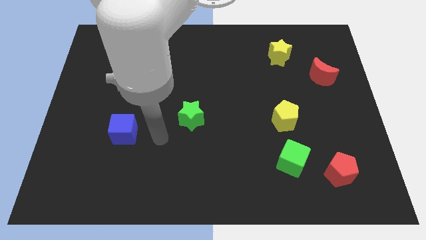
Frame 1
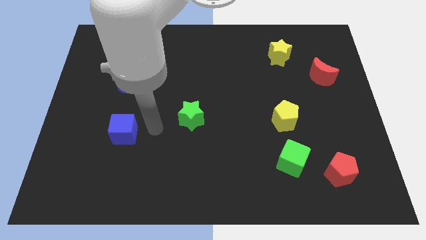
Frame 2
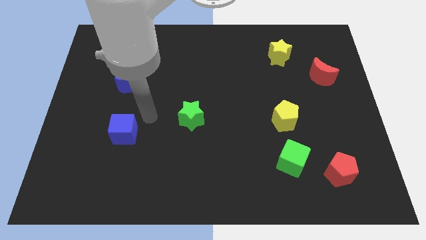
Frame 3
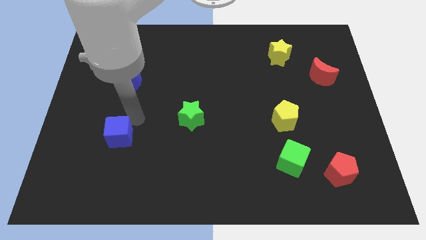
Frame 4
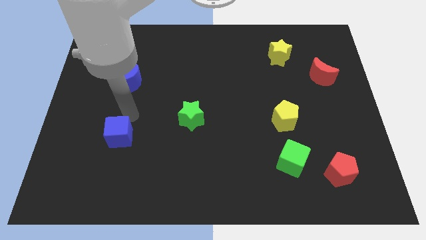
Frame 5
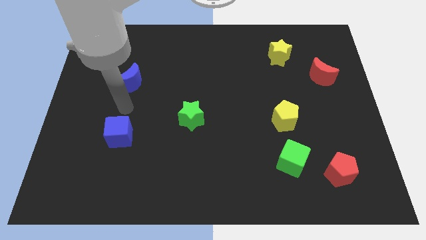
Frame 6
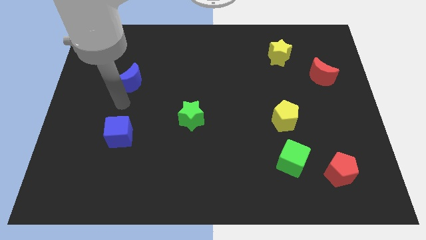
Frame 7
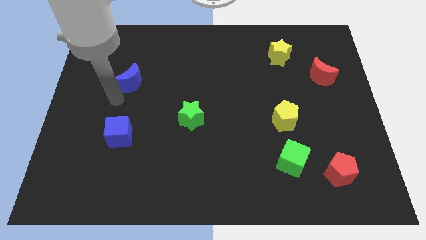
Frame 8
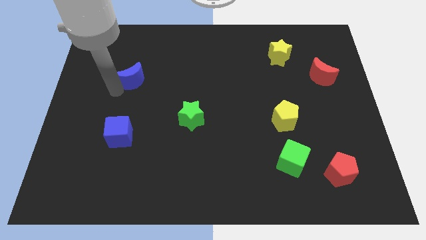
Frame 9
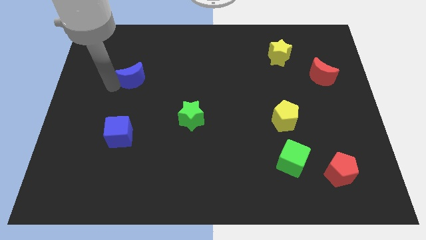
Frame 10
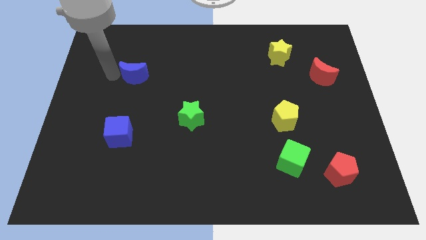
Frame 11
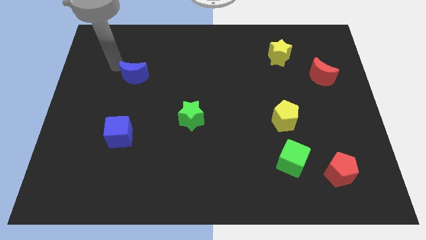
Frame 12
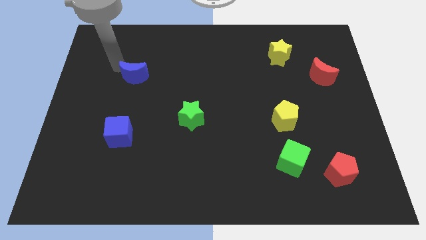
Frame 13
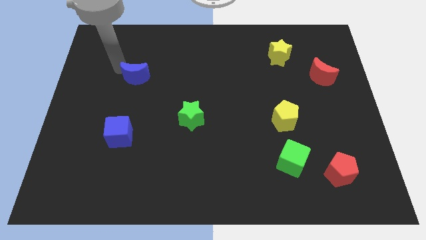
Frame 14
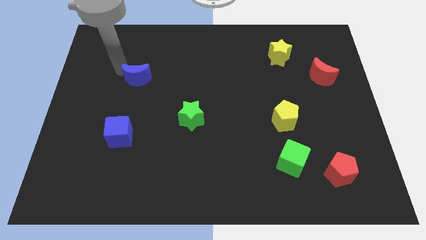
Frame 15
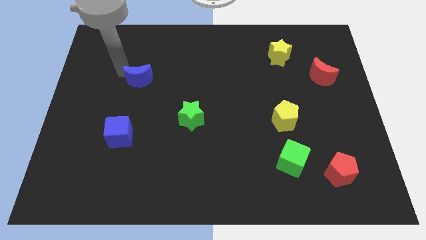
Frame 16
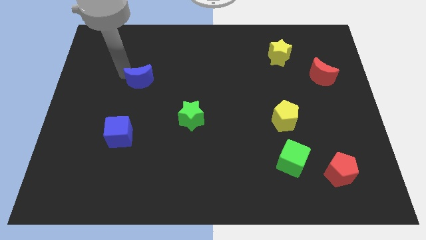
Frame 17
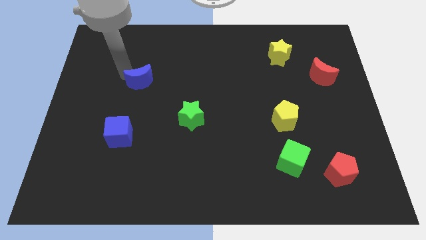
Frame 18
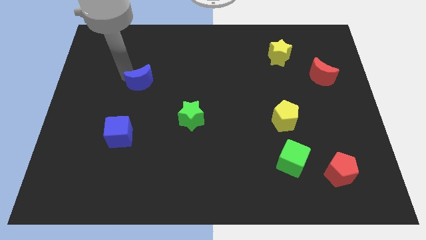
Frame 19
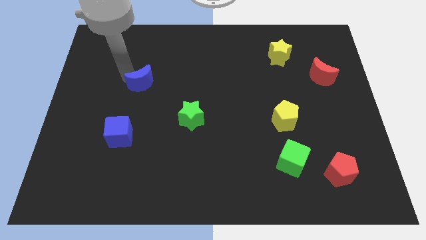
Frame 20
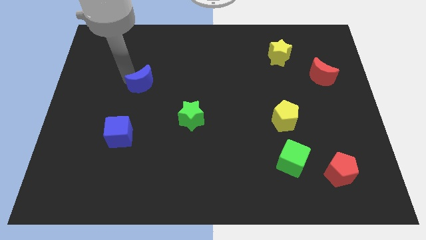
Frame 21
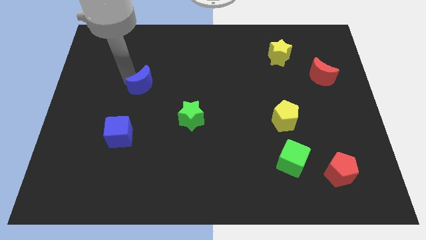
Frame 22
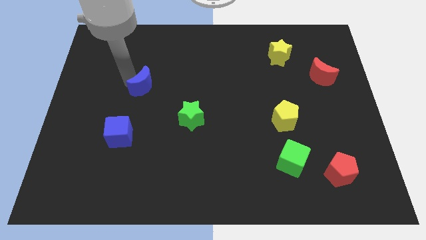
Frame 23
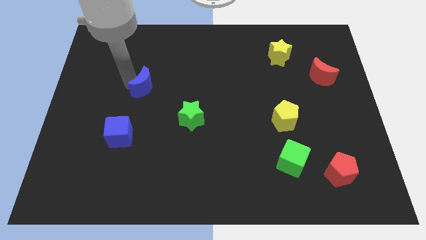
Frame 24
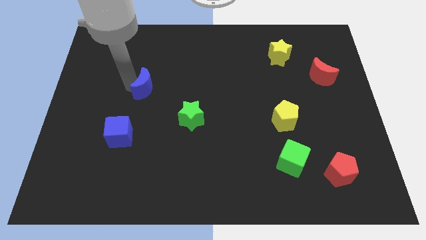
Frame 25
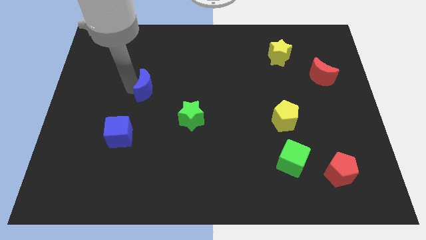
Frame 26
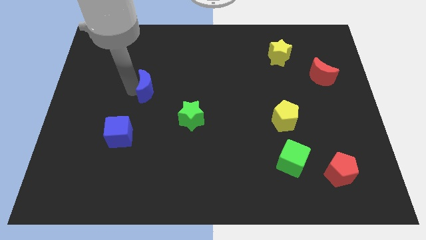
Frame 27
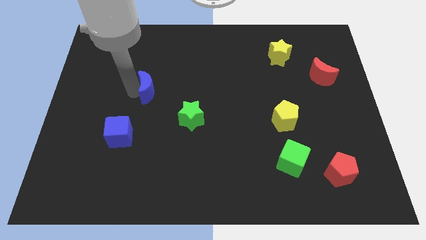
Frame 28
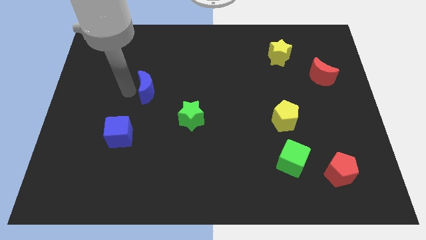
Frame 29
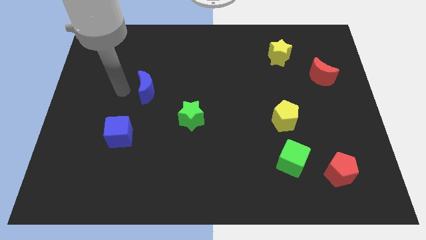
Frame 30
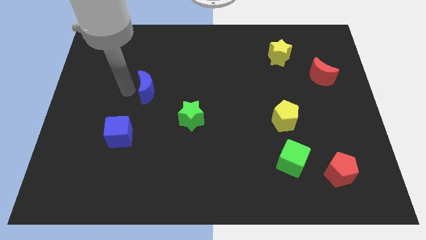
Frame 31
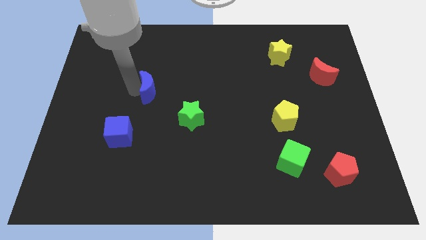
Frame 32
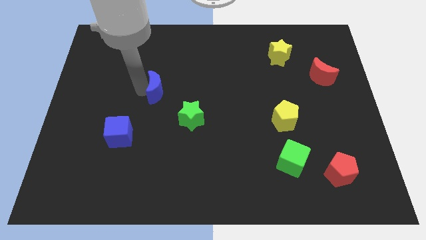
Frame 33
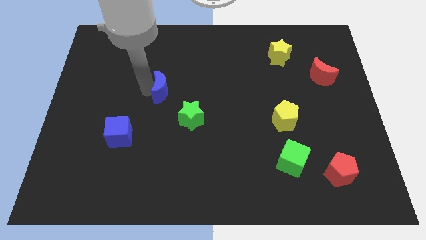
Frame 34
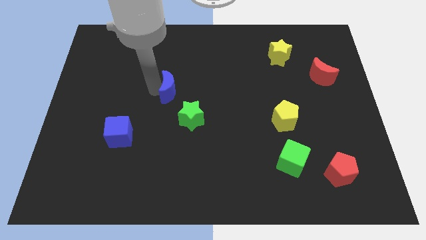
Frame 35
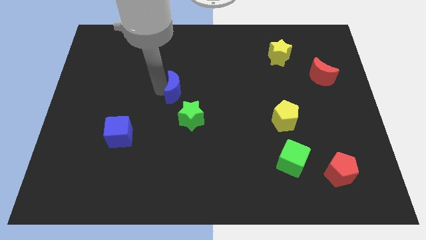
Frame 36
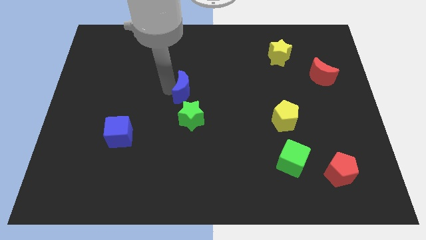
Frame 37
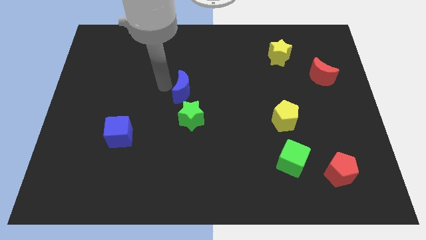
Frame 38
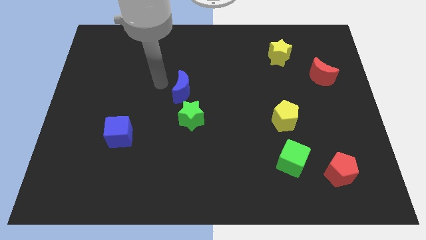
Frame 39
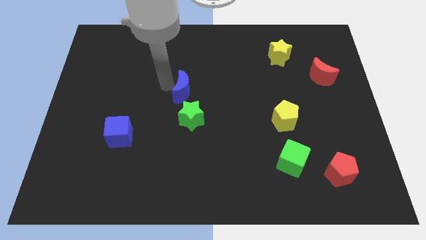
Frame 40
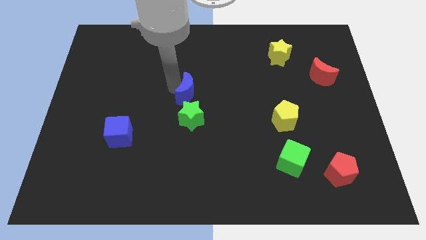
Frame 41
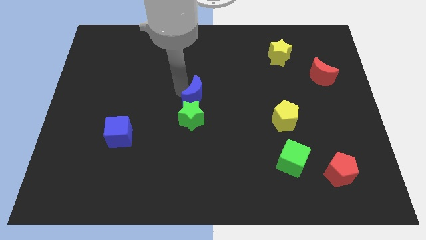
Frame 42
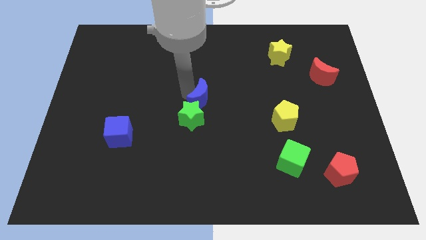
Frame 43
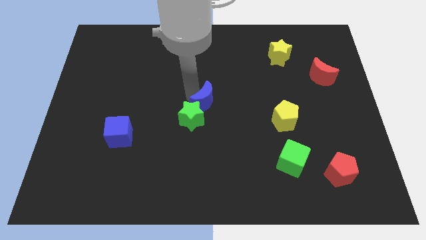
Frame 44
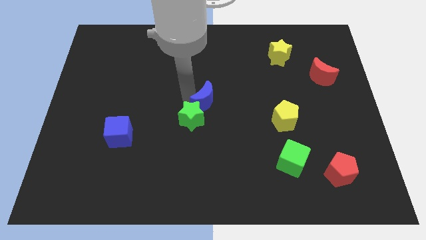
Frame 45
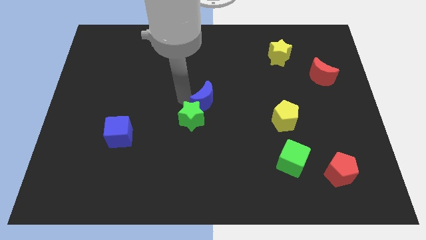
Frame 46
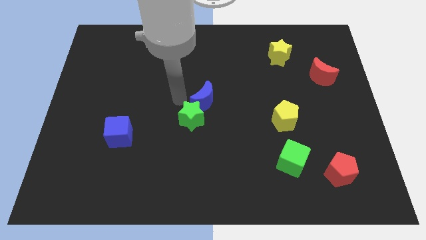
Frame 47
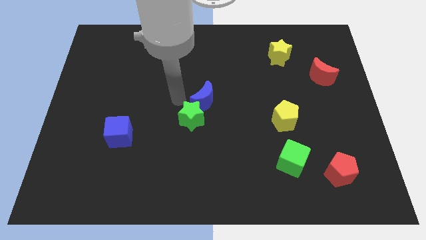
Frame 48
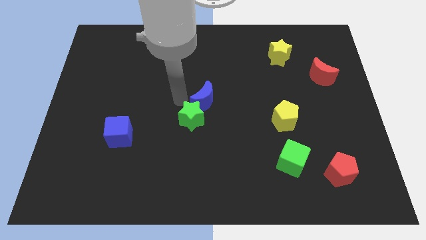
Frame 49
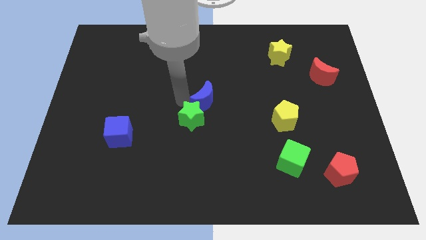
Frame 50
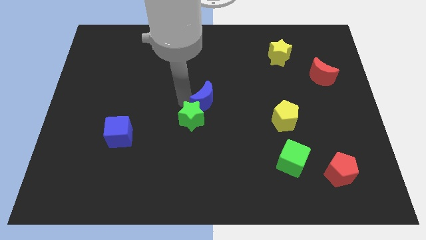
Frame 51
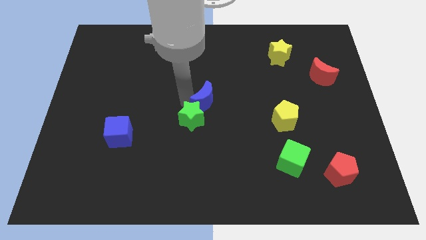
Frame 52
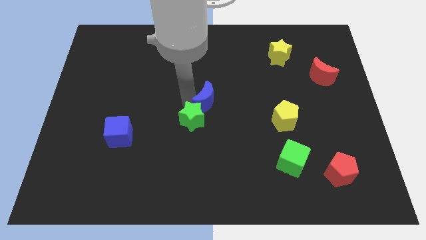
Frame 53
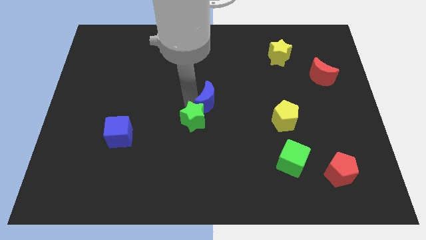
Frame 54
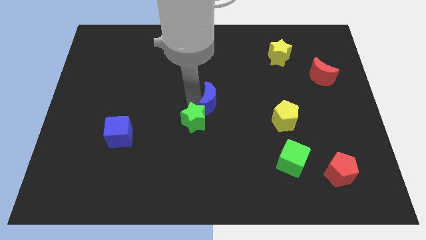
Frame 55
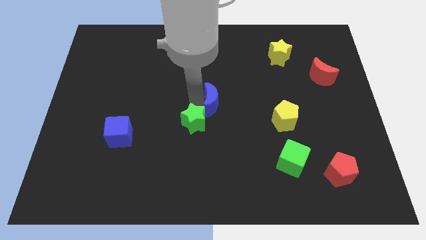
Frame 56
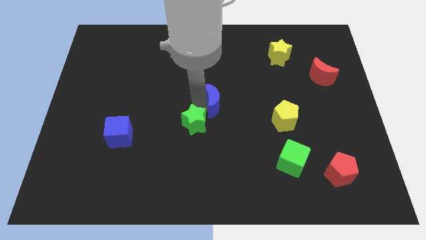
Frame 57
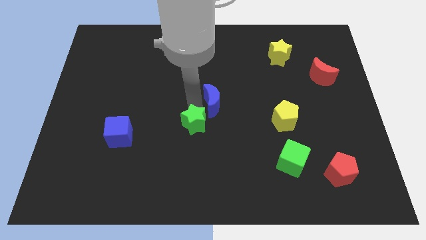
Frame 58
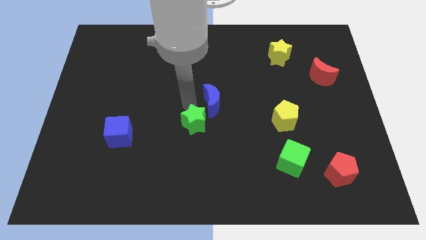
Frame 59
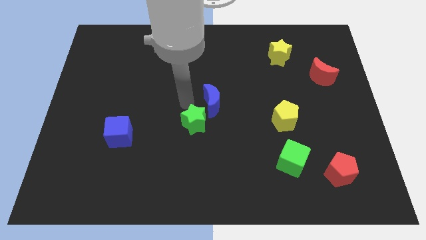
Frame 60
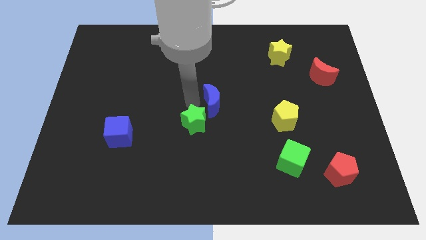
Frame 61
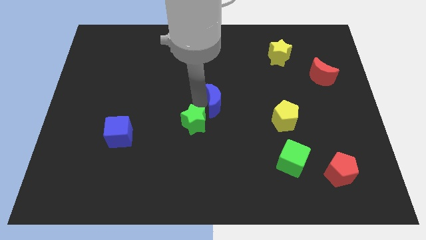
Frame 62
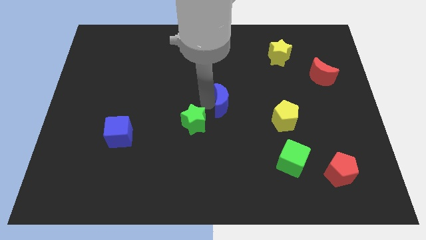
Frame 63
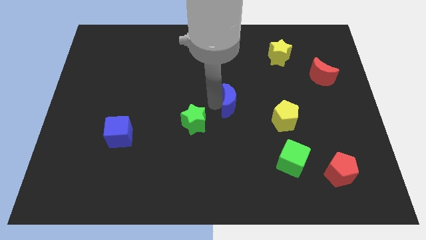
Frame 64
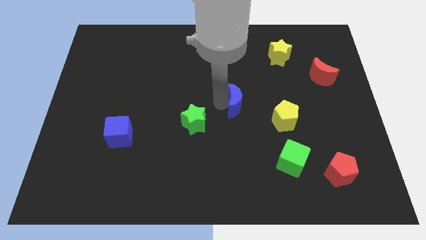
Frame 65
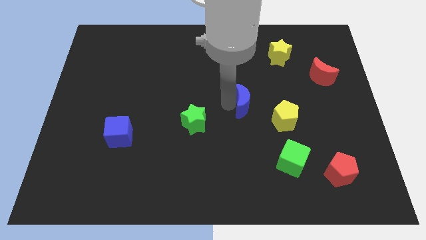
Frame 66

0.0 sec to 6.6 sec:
push the blue moon to the top left of the yellow pentagon
